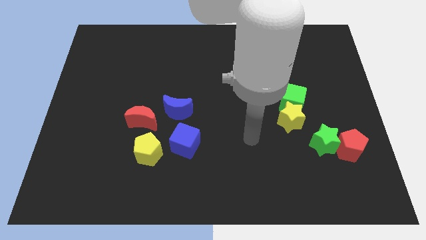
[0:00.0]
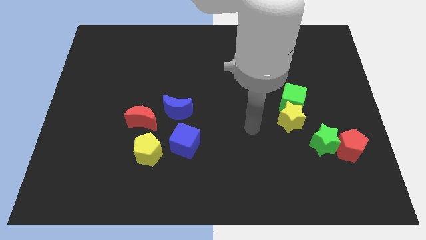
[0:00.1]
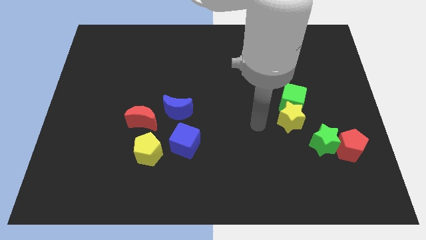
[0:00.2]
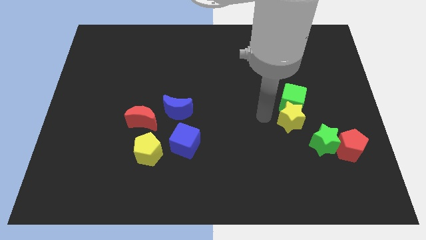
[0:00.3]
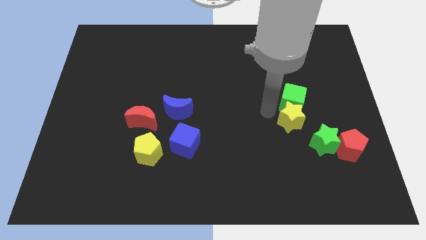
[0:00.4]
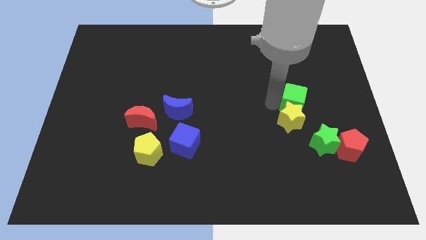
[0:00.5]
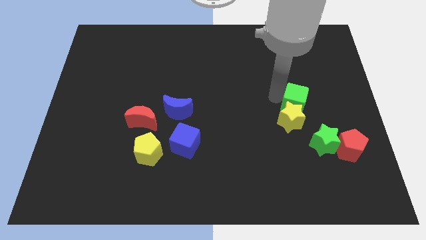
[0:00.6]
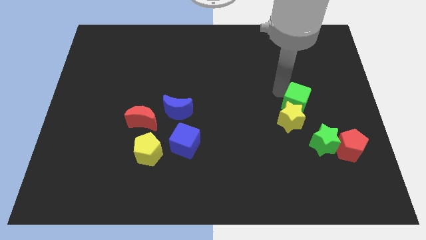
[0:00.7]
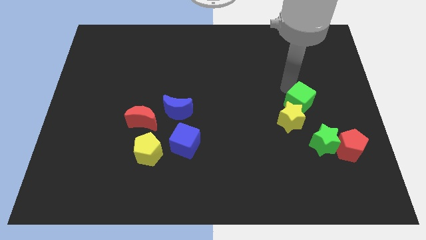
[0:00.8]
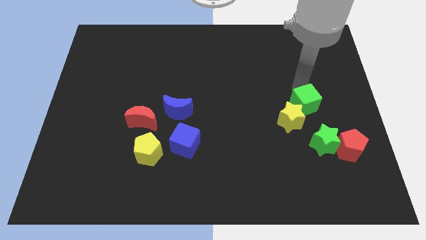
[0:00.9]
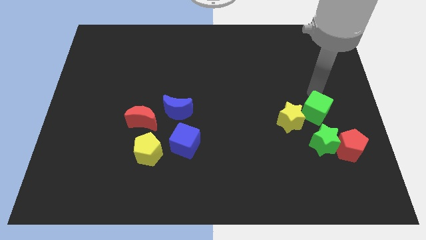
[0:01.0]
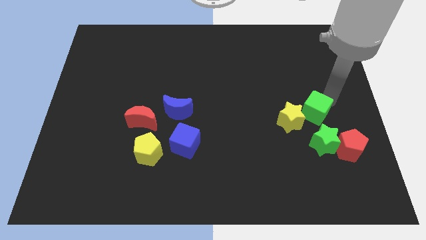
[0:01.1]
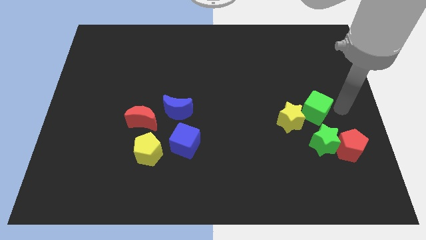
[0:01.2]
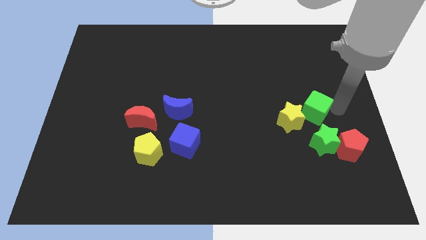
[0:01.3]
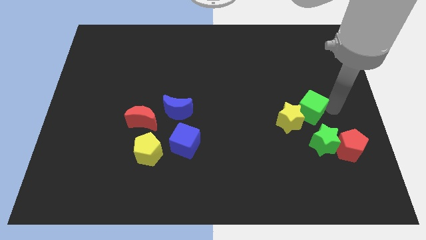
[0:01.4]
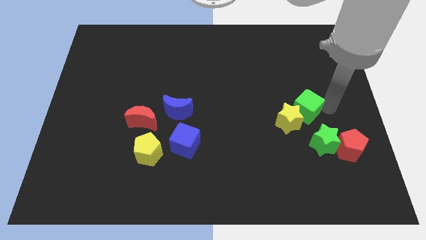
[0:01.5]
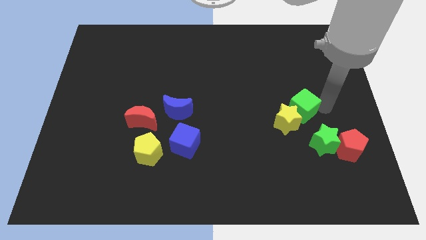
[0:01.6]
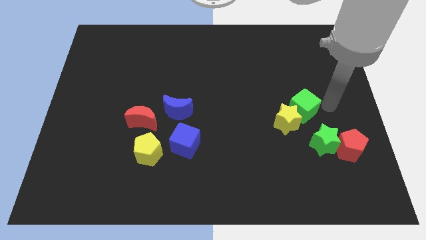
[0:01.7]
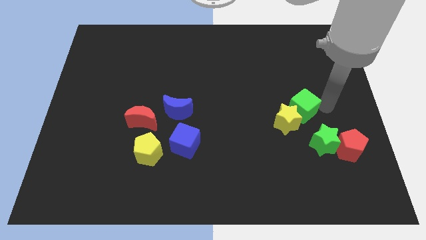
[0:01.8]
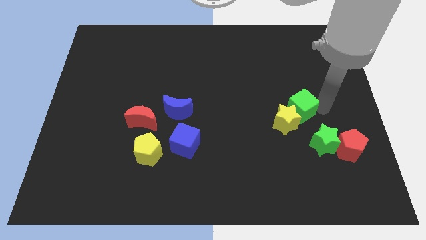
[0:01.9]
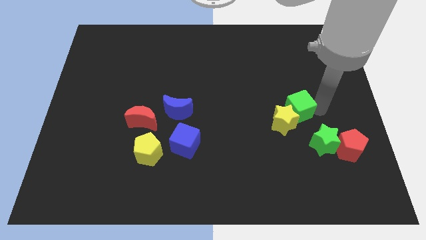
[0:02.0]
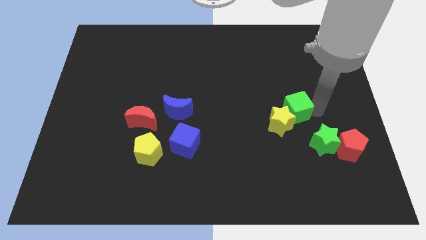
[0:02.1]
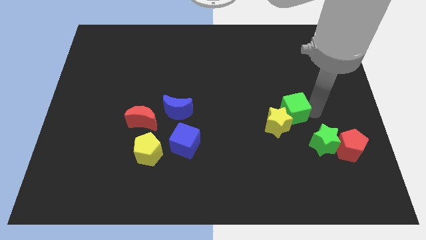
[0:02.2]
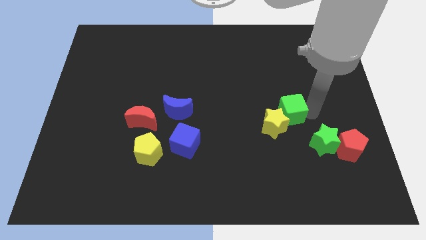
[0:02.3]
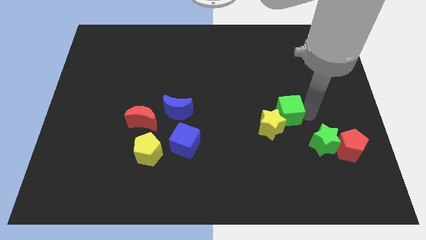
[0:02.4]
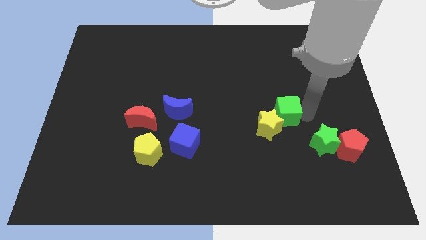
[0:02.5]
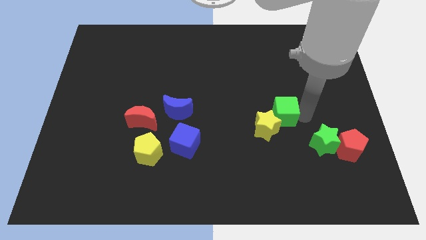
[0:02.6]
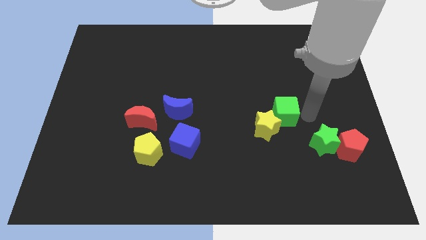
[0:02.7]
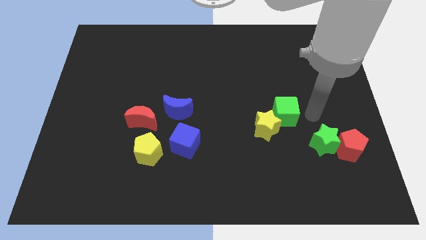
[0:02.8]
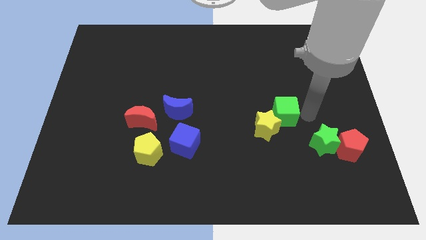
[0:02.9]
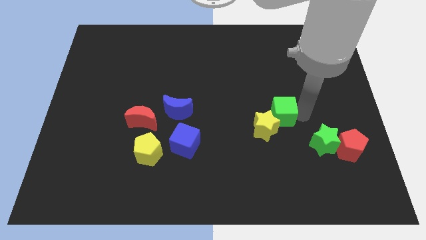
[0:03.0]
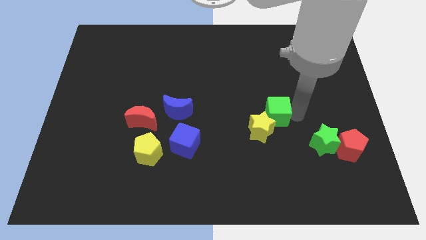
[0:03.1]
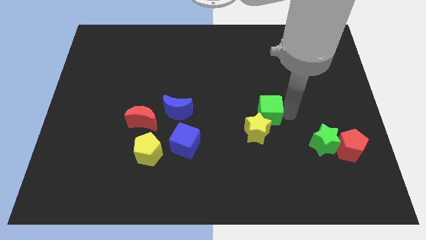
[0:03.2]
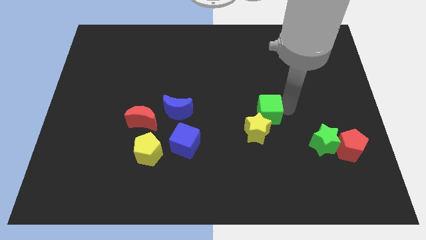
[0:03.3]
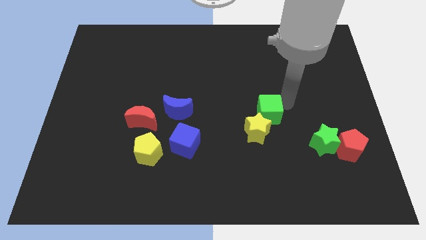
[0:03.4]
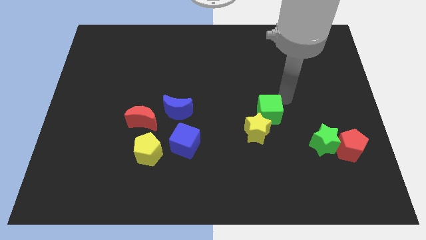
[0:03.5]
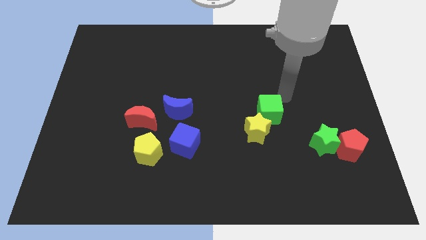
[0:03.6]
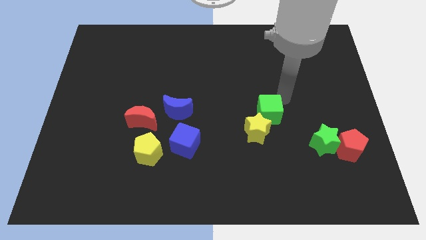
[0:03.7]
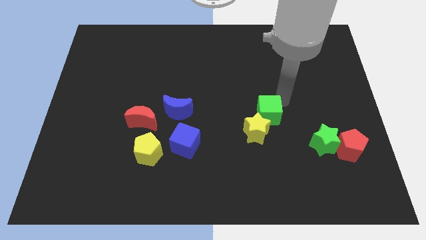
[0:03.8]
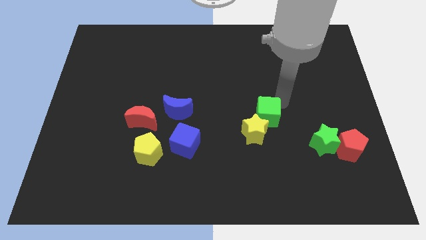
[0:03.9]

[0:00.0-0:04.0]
slide the green cube diagonally down and left slightly

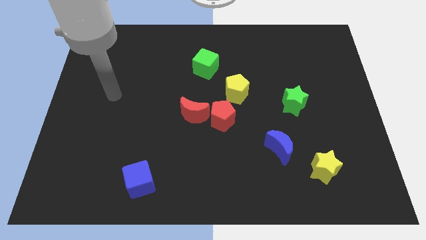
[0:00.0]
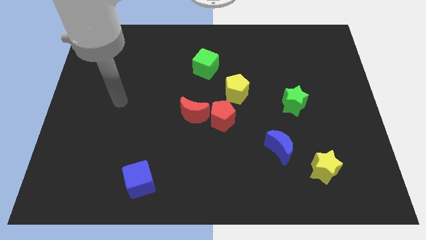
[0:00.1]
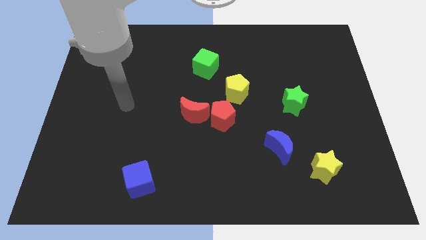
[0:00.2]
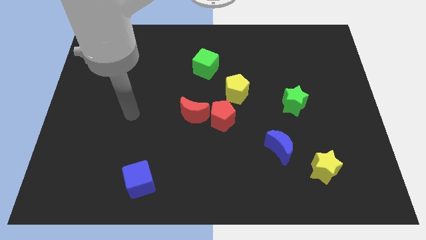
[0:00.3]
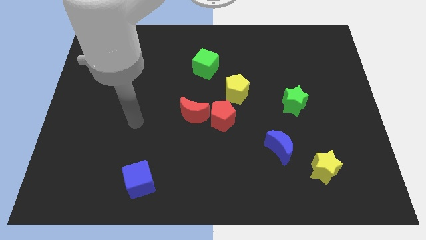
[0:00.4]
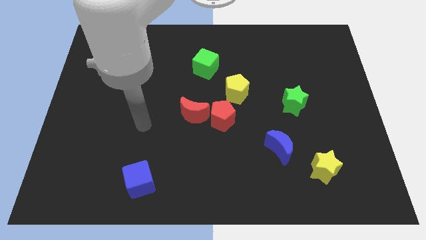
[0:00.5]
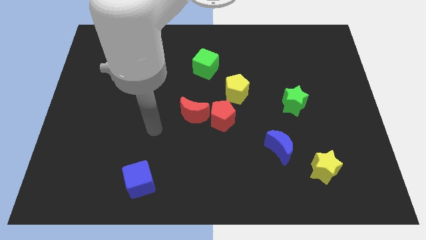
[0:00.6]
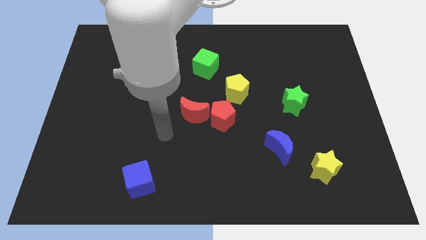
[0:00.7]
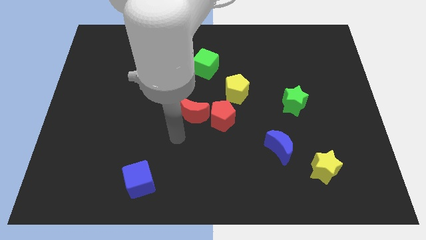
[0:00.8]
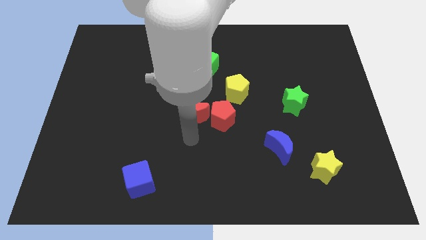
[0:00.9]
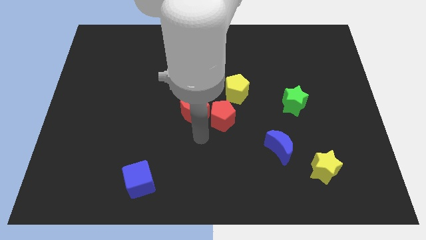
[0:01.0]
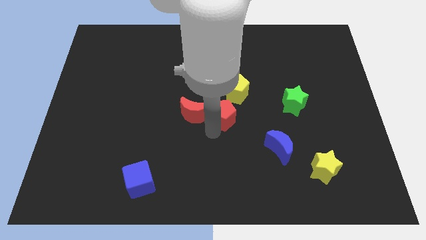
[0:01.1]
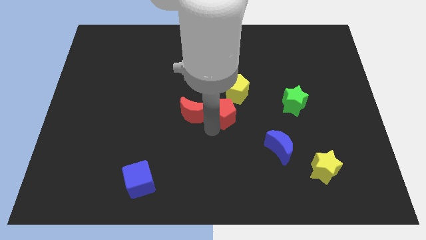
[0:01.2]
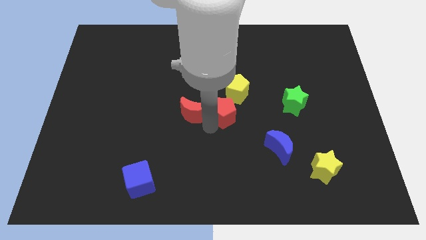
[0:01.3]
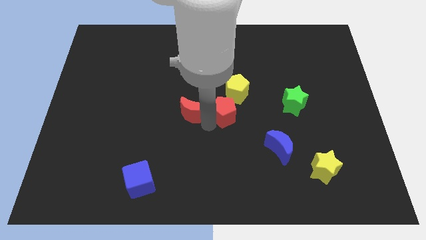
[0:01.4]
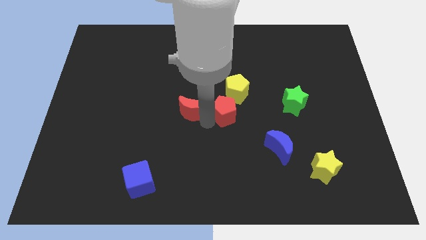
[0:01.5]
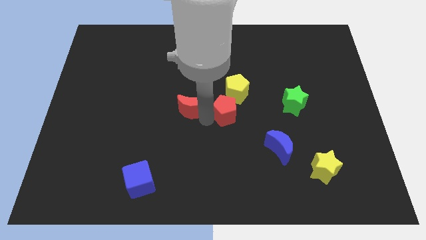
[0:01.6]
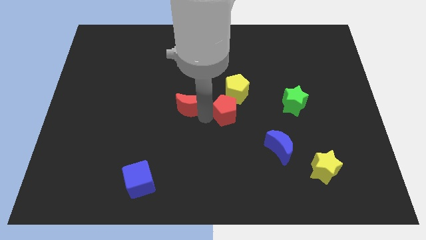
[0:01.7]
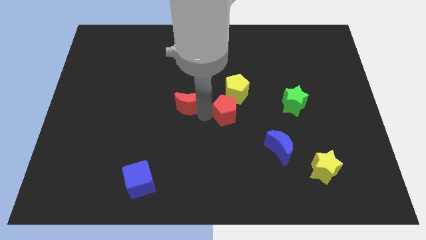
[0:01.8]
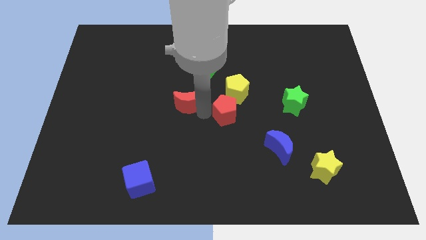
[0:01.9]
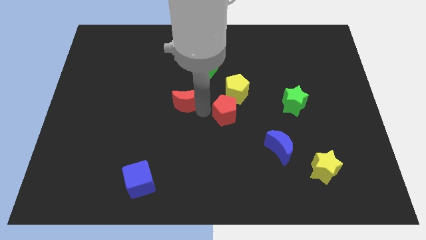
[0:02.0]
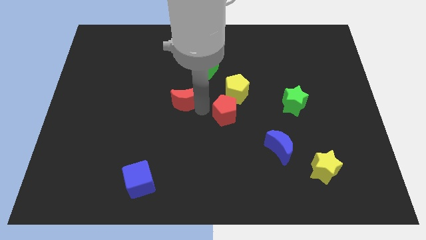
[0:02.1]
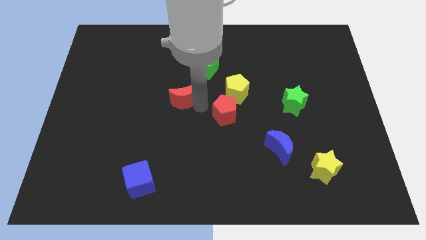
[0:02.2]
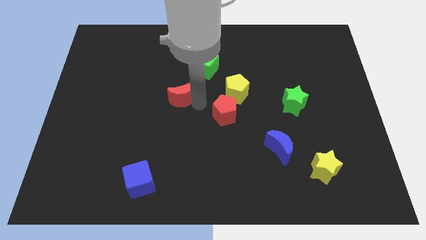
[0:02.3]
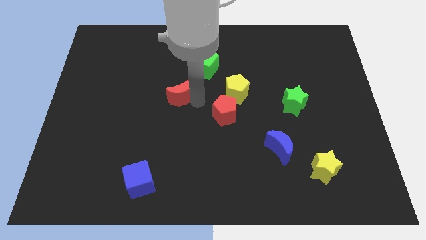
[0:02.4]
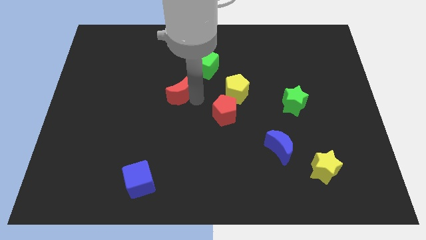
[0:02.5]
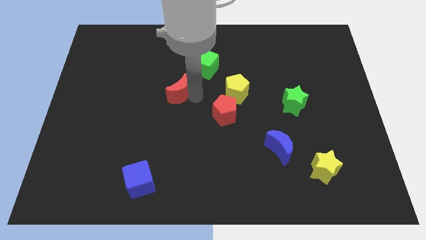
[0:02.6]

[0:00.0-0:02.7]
slide the red moon a little up and then to the left

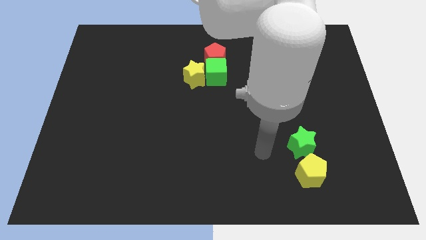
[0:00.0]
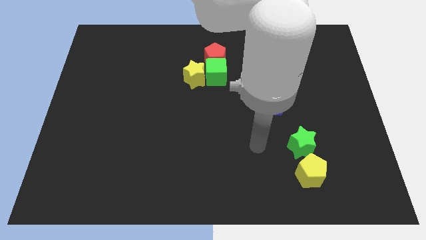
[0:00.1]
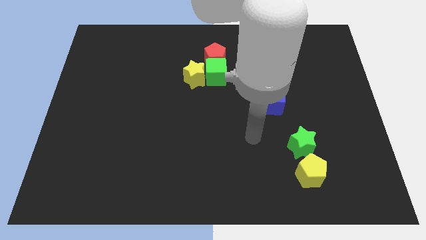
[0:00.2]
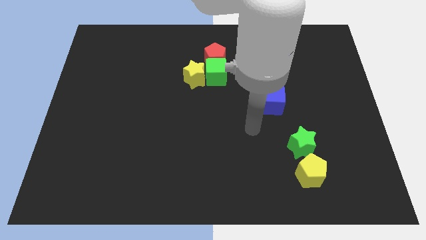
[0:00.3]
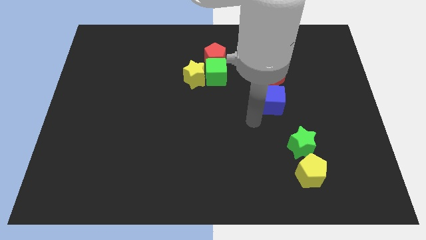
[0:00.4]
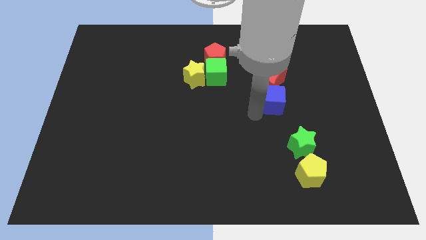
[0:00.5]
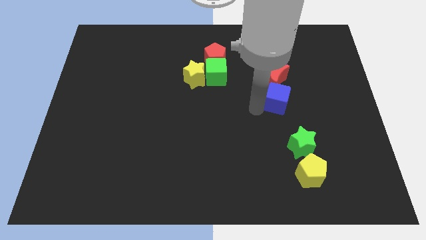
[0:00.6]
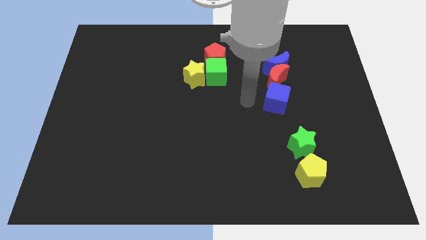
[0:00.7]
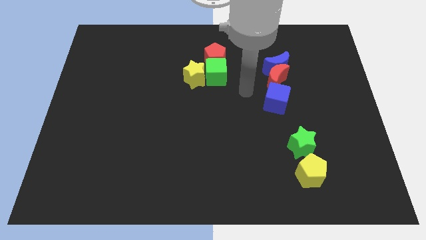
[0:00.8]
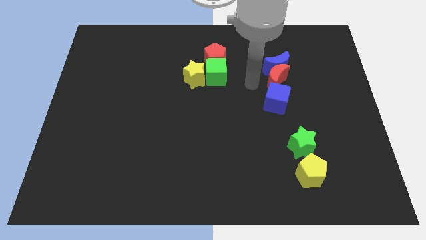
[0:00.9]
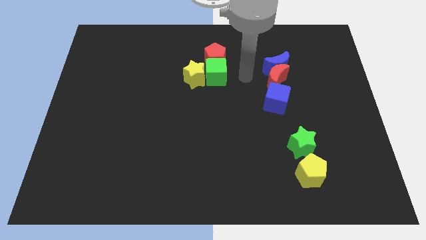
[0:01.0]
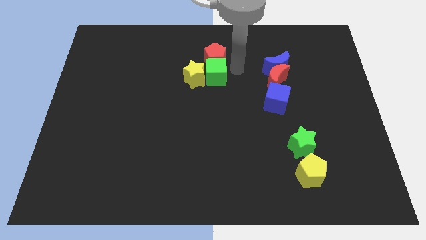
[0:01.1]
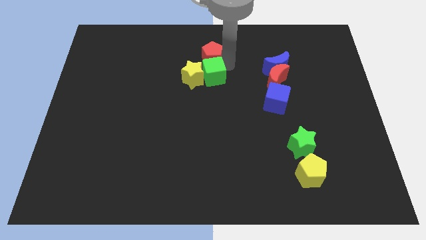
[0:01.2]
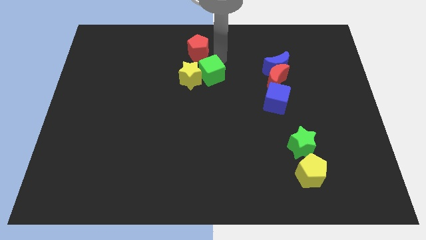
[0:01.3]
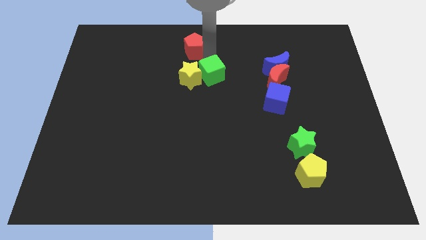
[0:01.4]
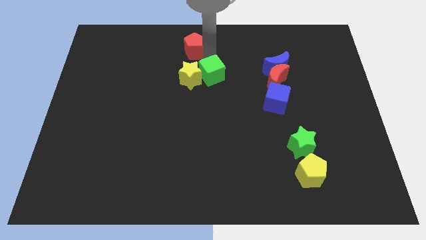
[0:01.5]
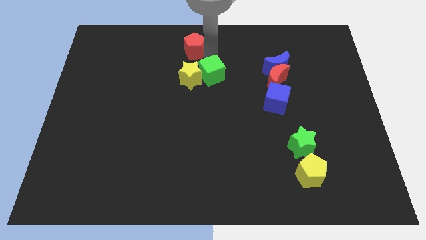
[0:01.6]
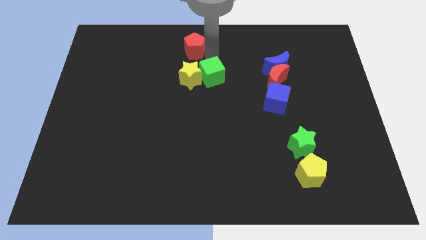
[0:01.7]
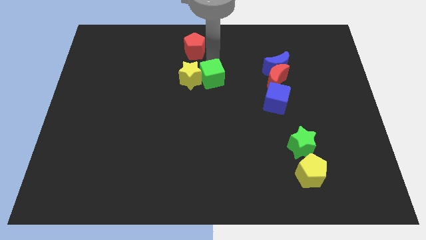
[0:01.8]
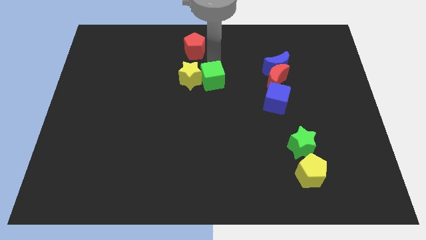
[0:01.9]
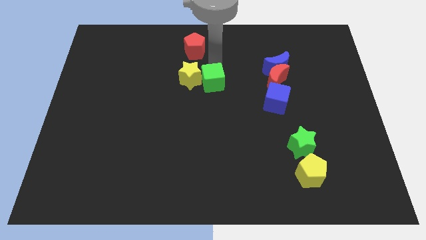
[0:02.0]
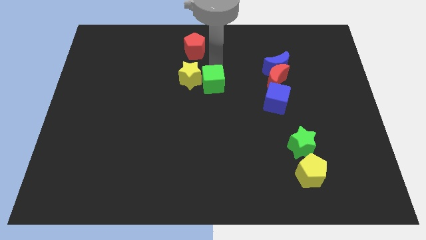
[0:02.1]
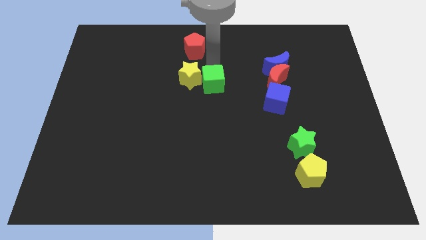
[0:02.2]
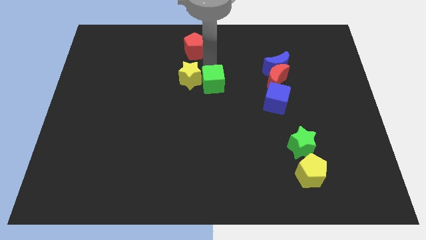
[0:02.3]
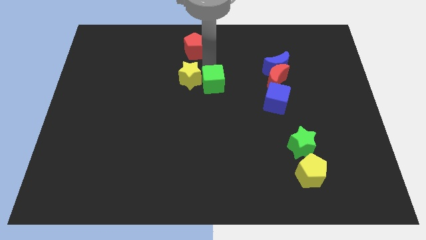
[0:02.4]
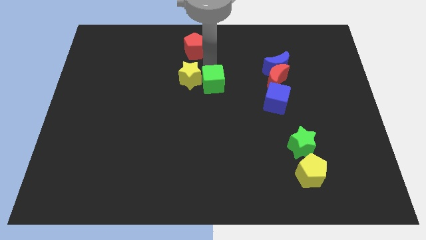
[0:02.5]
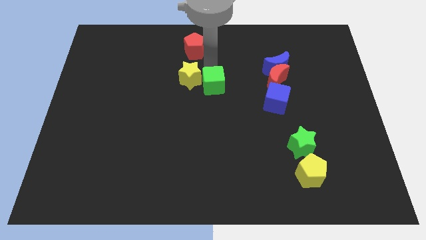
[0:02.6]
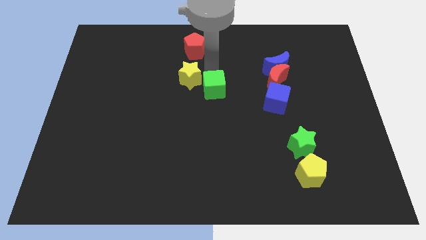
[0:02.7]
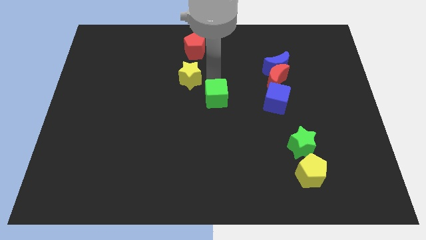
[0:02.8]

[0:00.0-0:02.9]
push the green cube a little bit down
